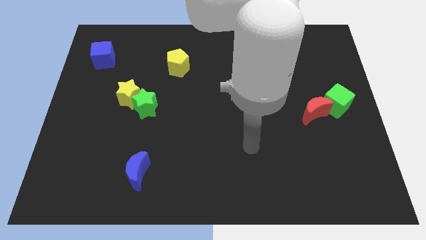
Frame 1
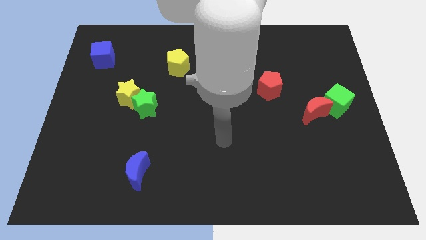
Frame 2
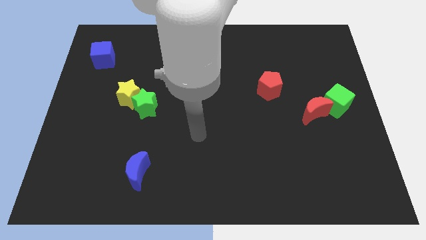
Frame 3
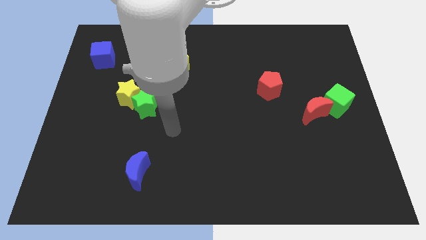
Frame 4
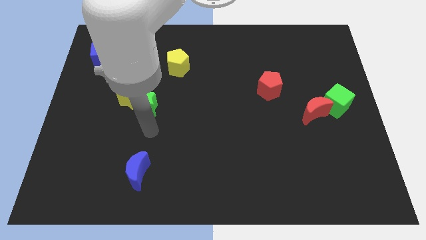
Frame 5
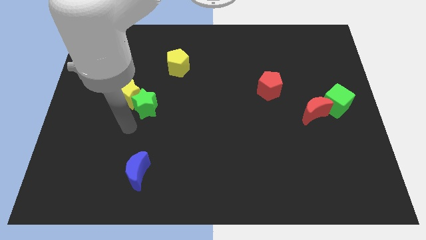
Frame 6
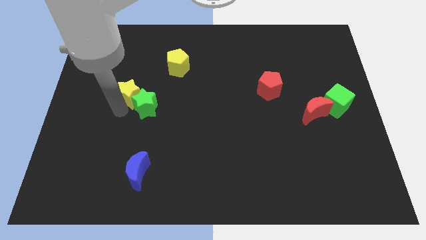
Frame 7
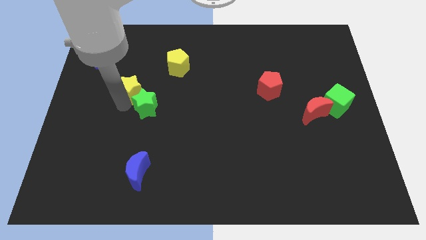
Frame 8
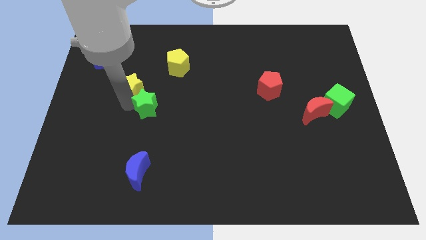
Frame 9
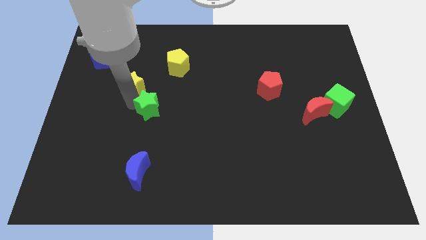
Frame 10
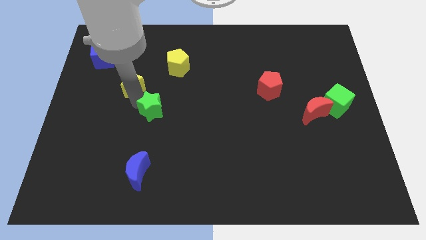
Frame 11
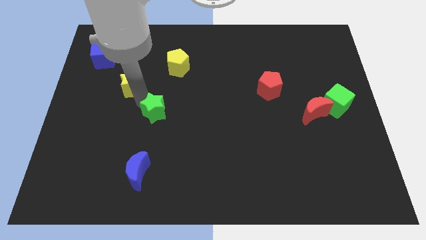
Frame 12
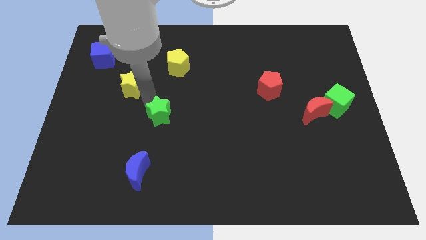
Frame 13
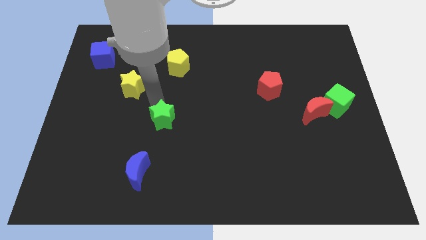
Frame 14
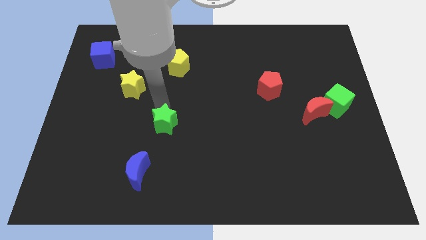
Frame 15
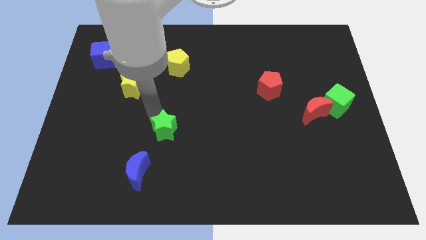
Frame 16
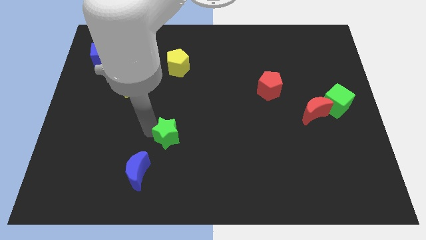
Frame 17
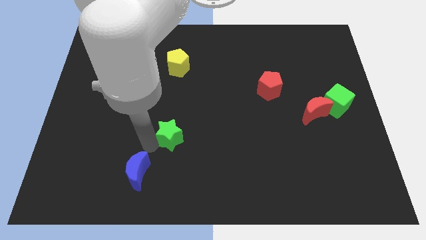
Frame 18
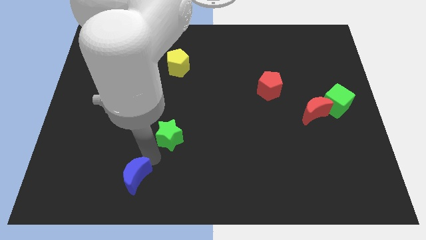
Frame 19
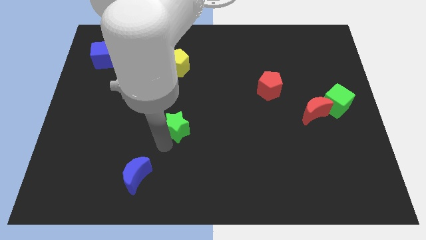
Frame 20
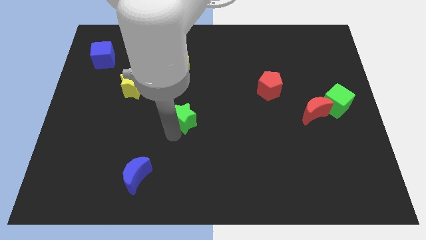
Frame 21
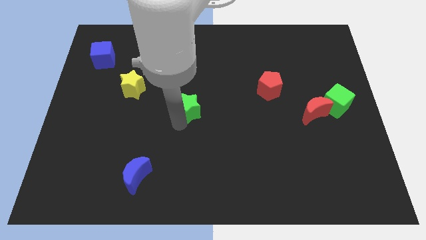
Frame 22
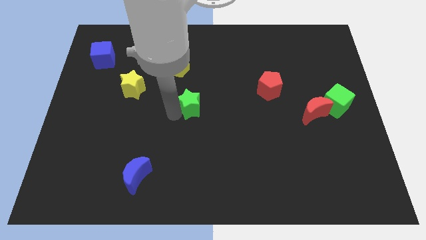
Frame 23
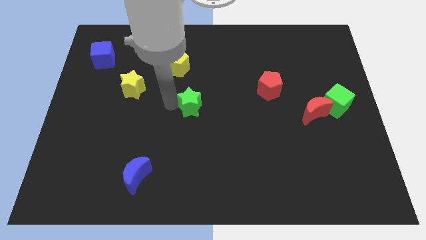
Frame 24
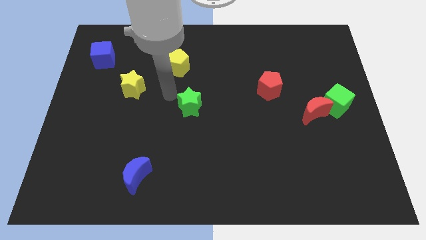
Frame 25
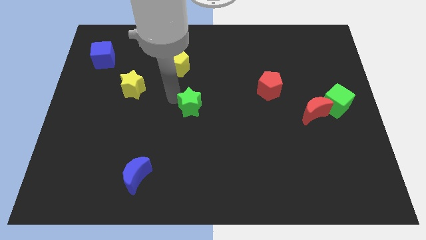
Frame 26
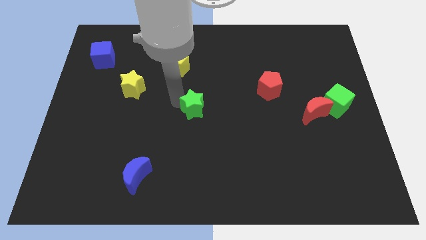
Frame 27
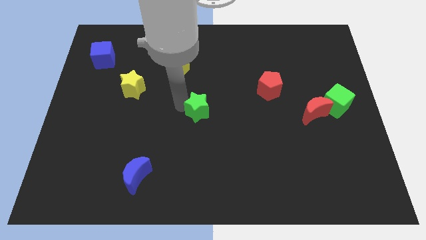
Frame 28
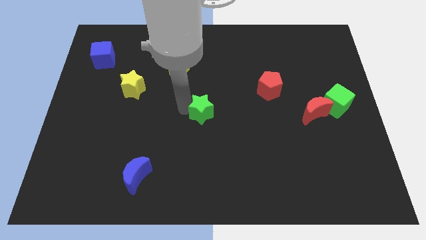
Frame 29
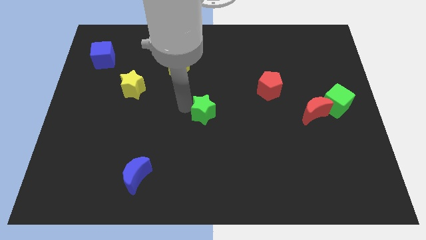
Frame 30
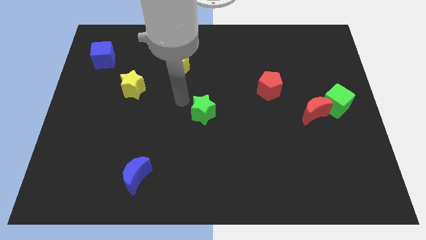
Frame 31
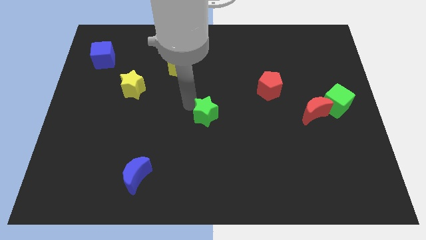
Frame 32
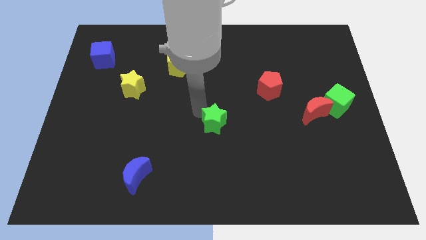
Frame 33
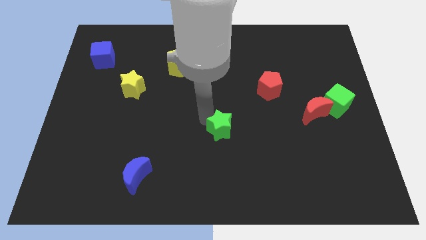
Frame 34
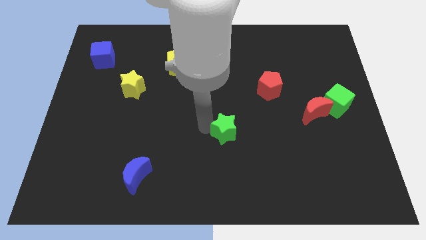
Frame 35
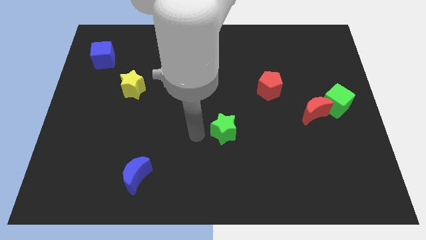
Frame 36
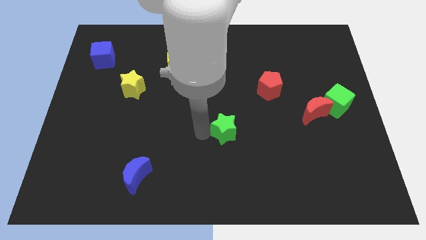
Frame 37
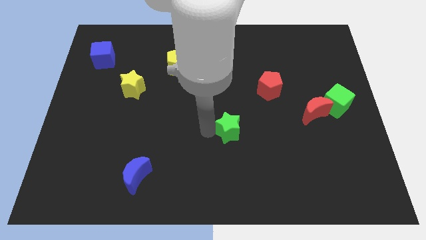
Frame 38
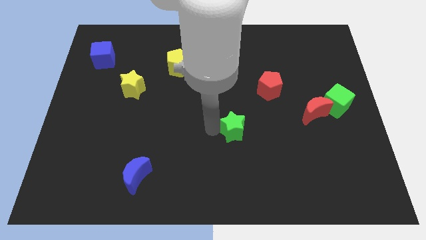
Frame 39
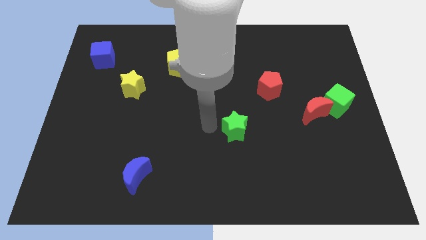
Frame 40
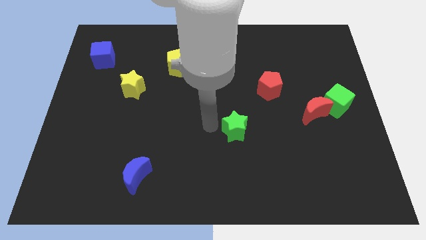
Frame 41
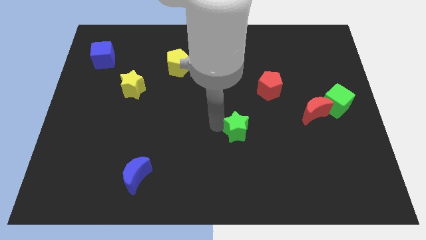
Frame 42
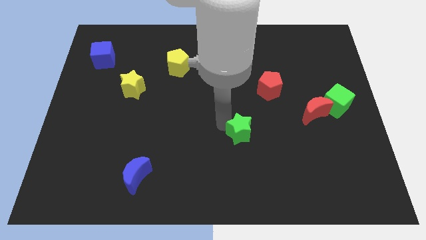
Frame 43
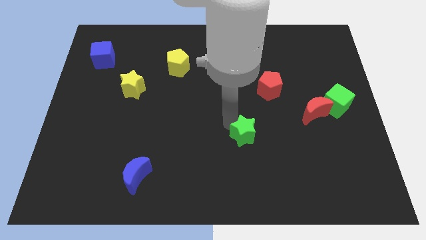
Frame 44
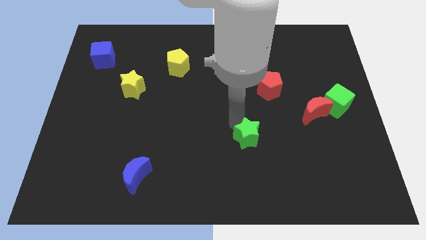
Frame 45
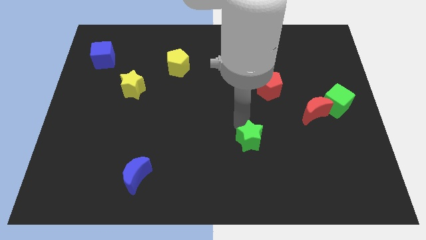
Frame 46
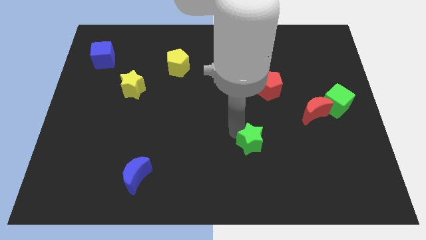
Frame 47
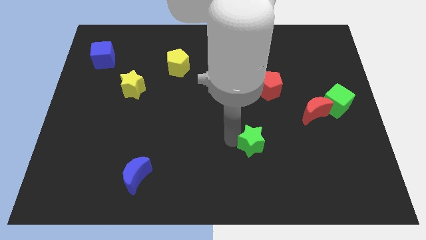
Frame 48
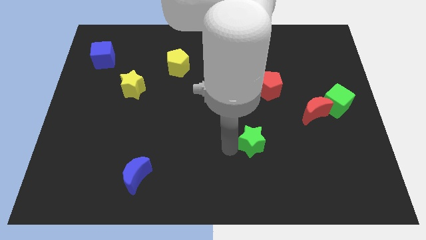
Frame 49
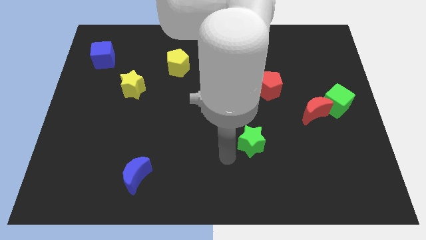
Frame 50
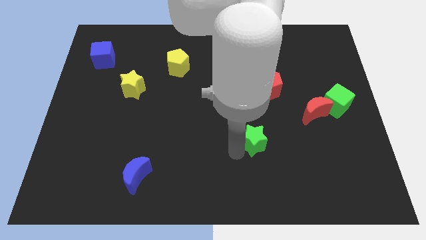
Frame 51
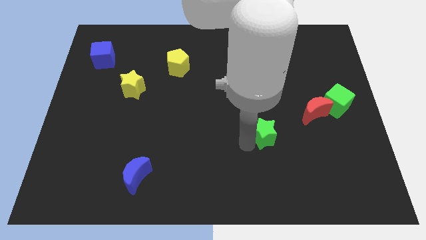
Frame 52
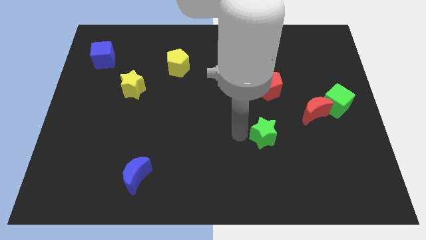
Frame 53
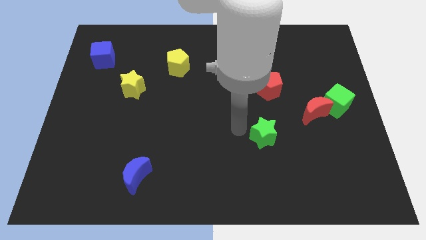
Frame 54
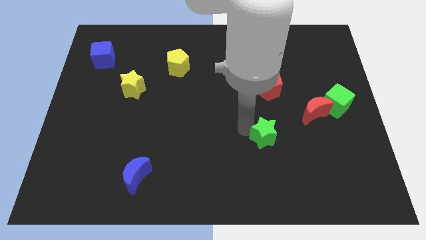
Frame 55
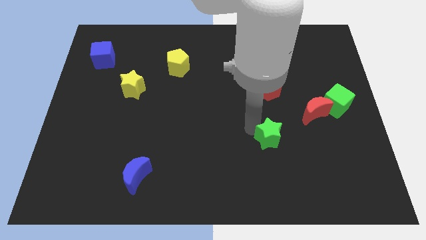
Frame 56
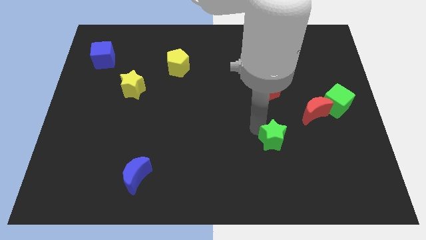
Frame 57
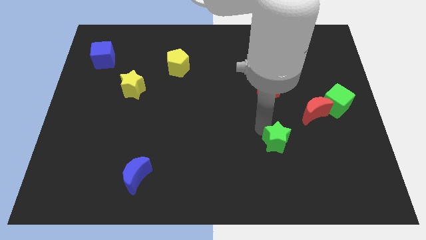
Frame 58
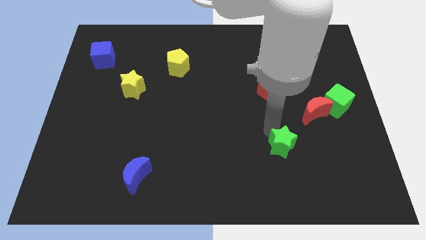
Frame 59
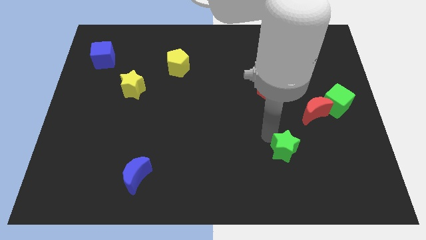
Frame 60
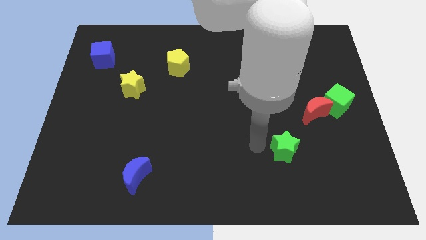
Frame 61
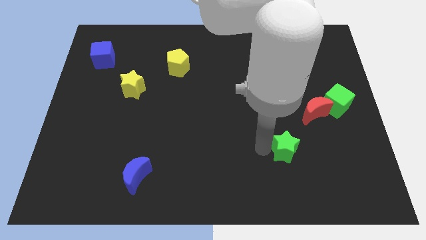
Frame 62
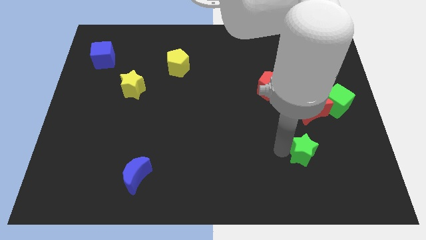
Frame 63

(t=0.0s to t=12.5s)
push the green star to the bottom side of the red moon
